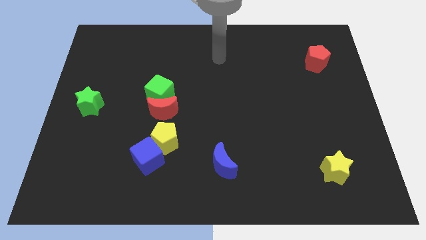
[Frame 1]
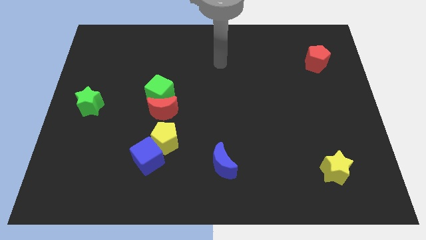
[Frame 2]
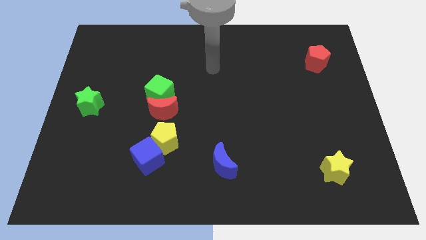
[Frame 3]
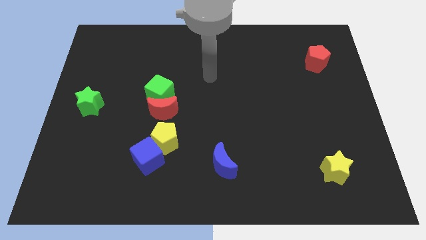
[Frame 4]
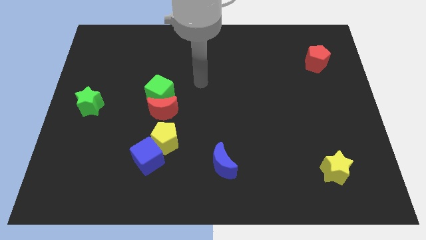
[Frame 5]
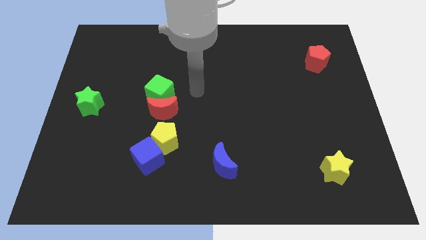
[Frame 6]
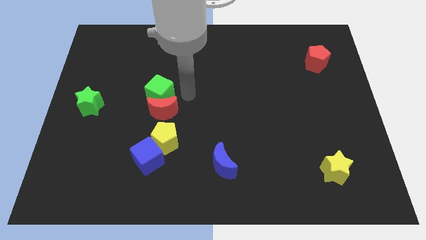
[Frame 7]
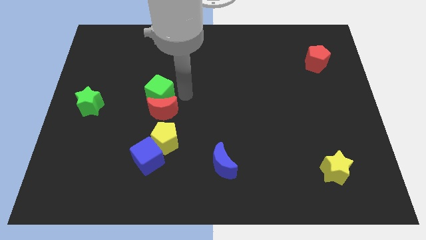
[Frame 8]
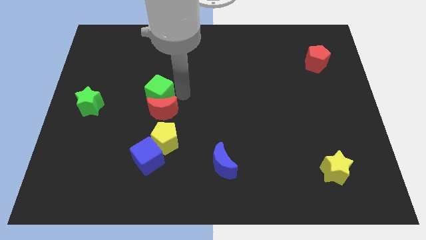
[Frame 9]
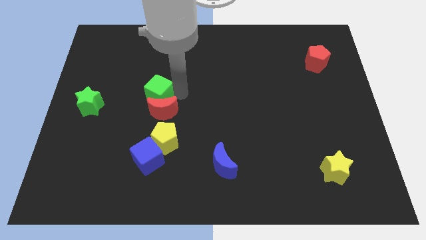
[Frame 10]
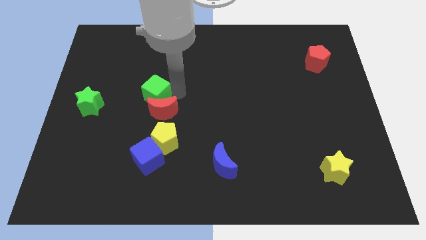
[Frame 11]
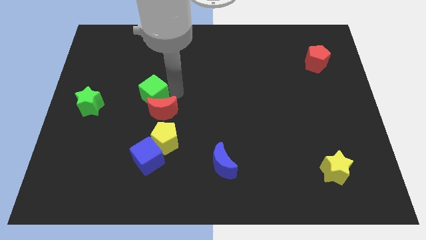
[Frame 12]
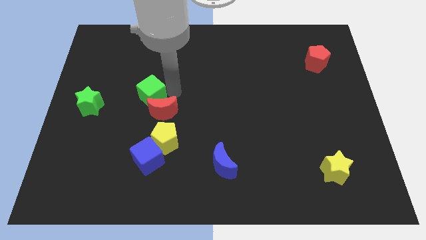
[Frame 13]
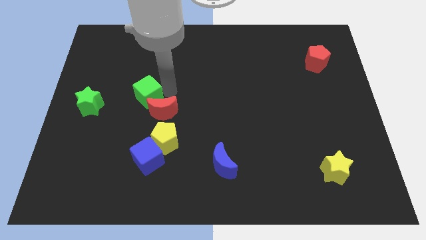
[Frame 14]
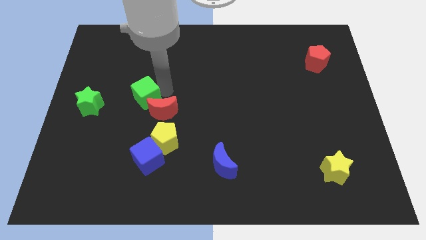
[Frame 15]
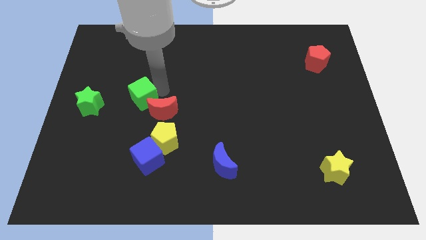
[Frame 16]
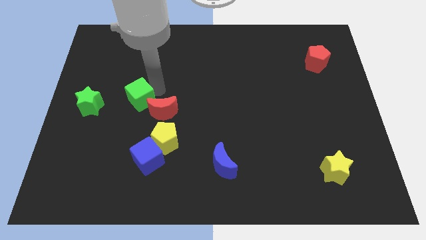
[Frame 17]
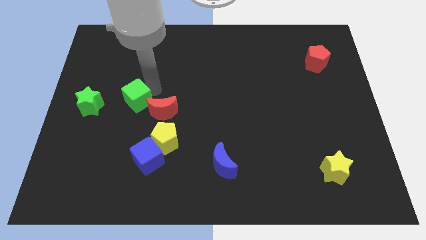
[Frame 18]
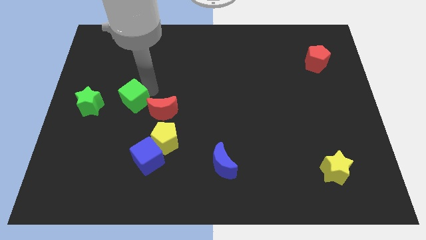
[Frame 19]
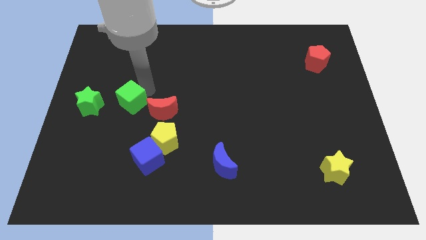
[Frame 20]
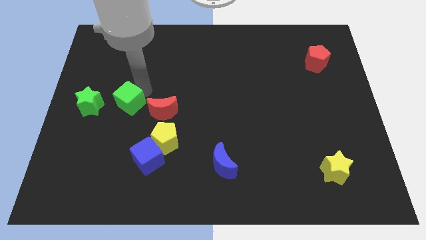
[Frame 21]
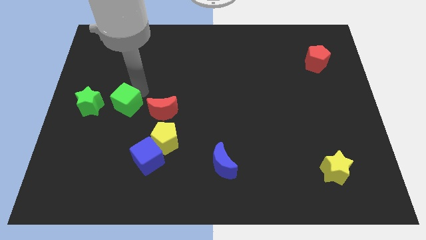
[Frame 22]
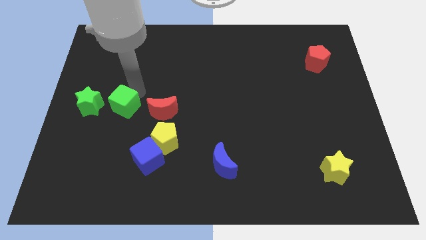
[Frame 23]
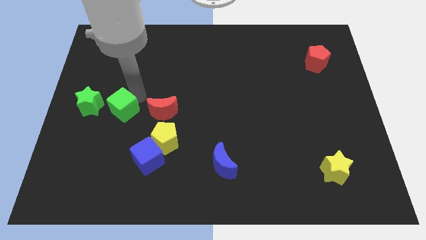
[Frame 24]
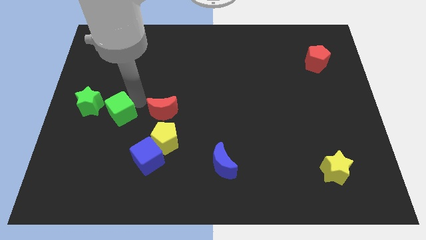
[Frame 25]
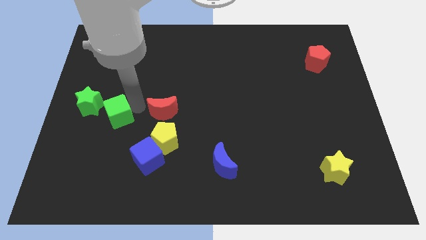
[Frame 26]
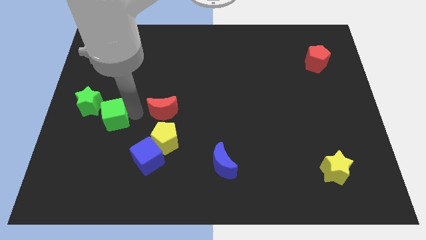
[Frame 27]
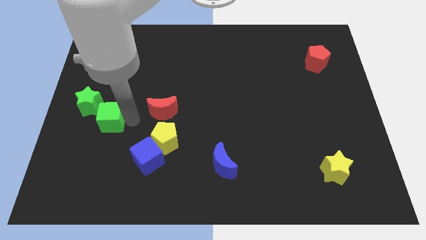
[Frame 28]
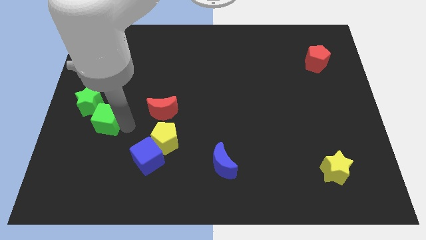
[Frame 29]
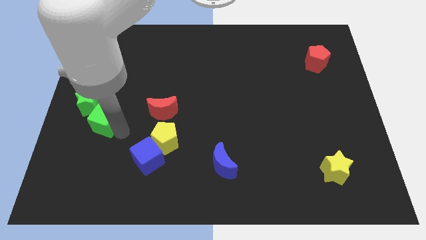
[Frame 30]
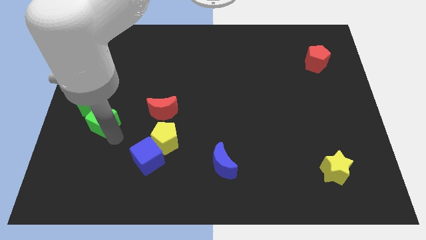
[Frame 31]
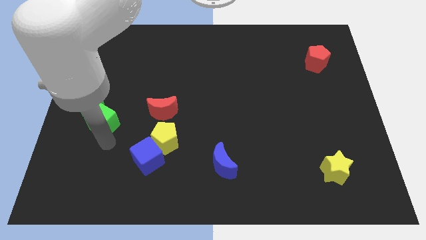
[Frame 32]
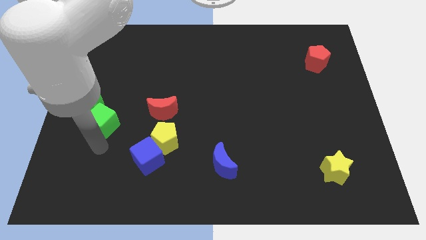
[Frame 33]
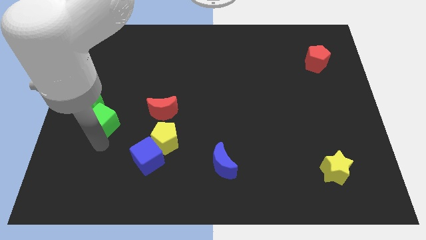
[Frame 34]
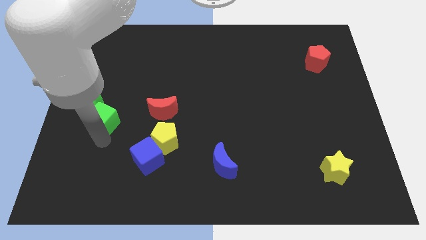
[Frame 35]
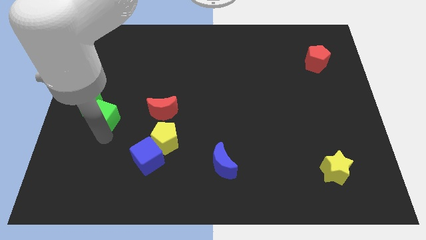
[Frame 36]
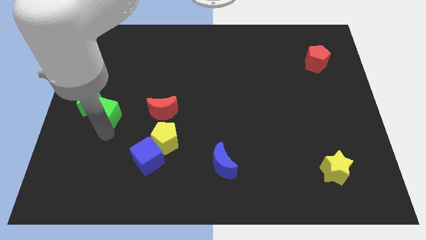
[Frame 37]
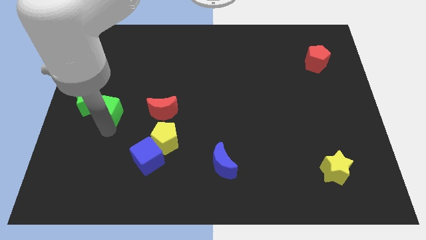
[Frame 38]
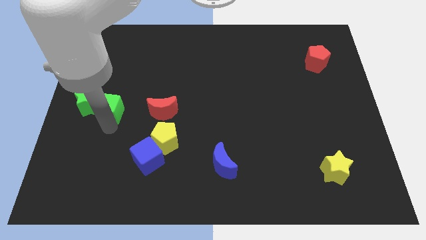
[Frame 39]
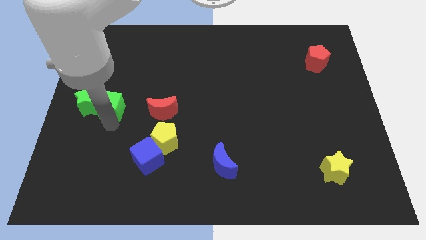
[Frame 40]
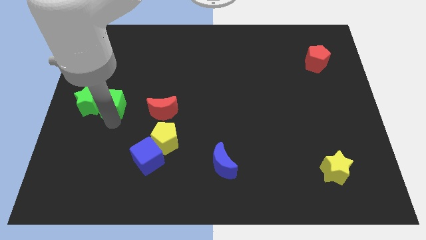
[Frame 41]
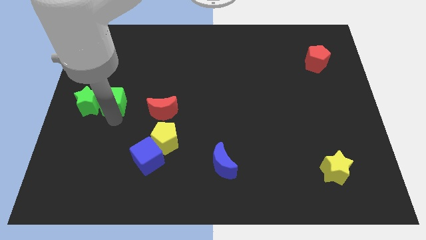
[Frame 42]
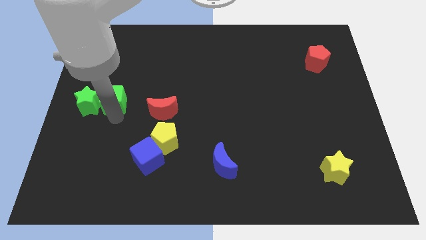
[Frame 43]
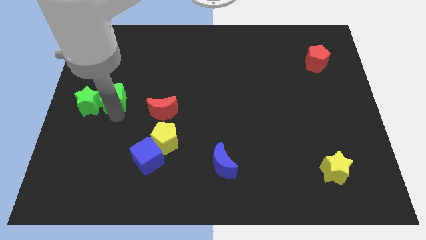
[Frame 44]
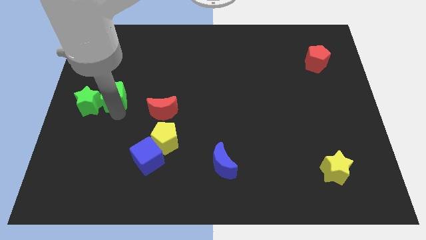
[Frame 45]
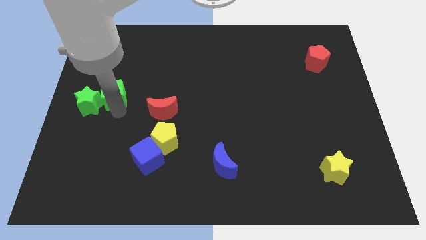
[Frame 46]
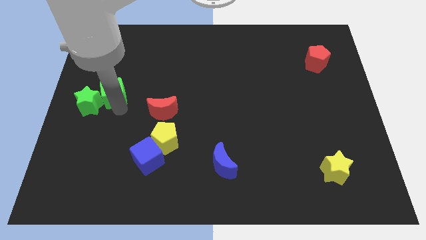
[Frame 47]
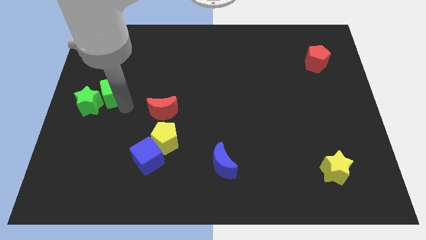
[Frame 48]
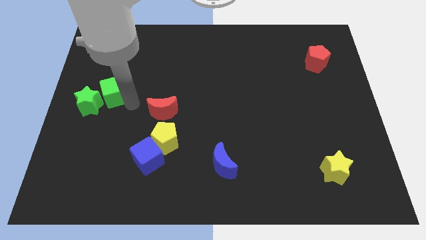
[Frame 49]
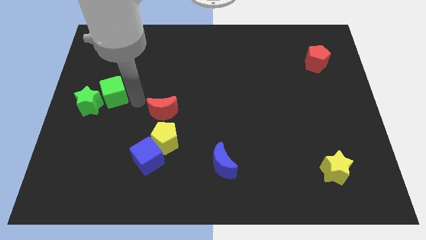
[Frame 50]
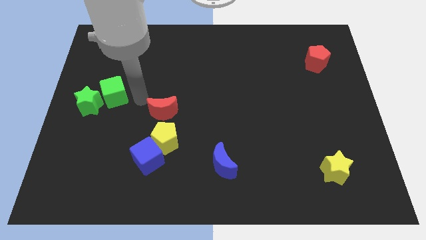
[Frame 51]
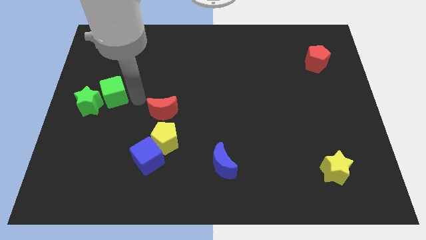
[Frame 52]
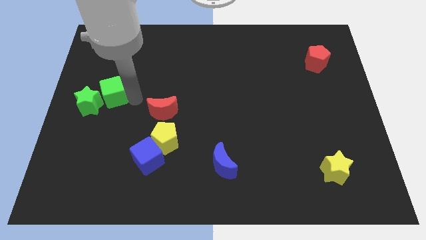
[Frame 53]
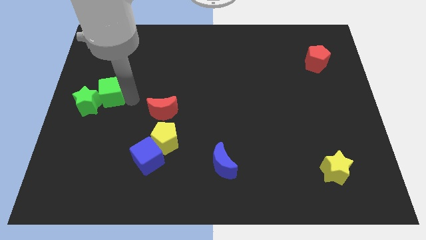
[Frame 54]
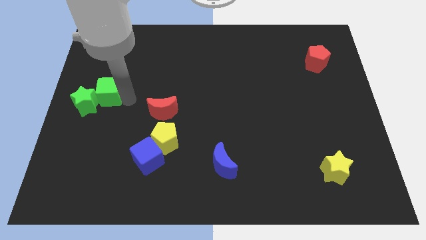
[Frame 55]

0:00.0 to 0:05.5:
put the green cube to the left side of the board
